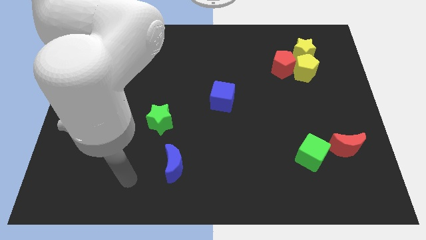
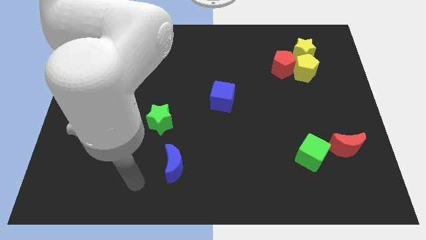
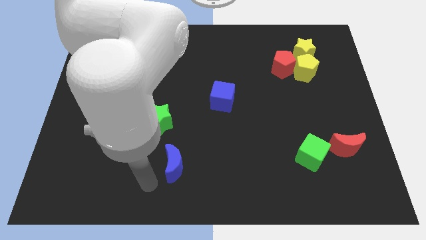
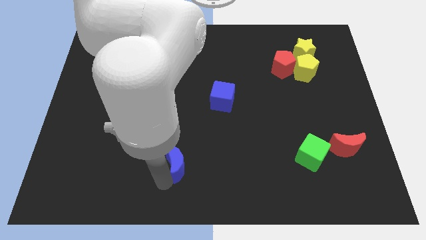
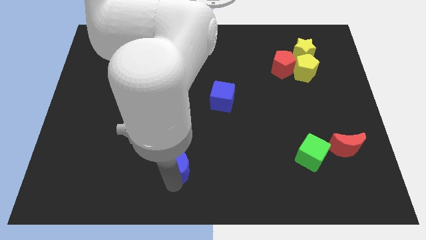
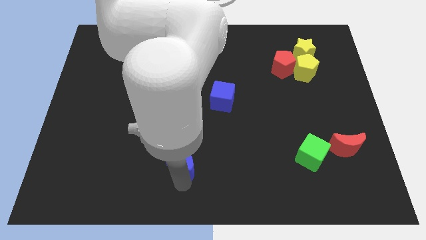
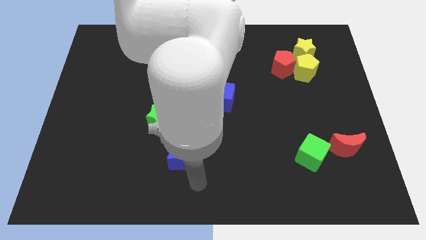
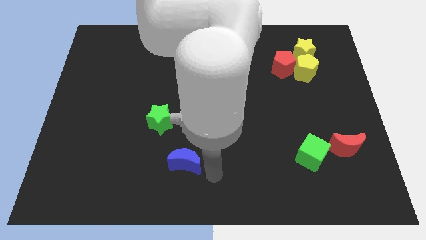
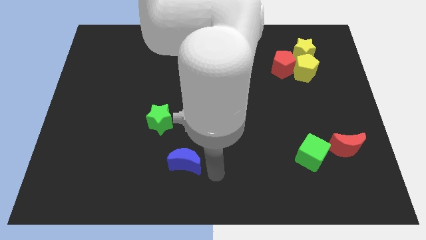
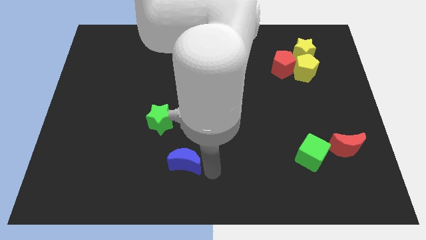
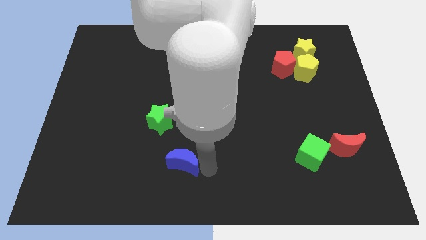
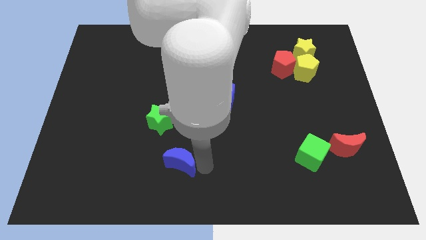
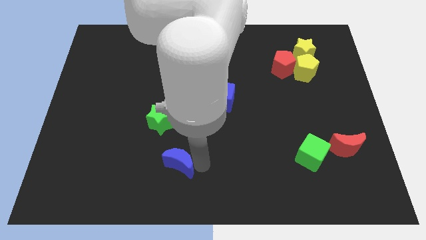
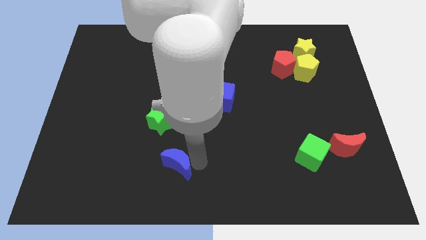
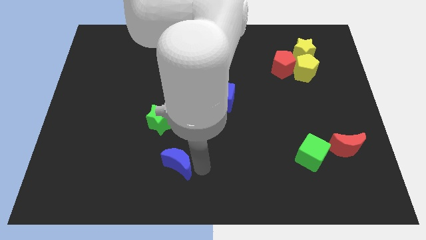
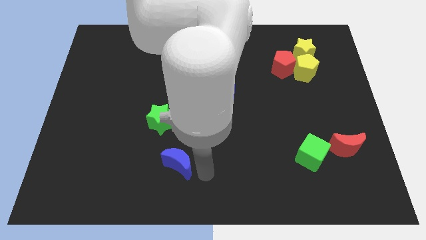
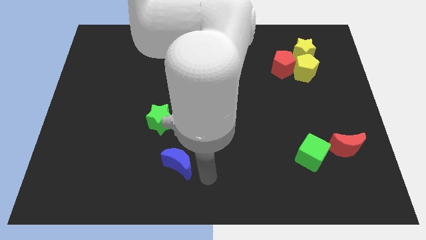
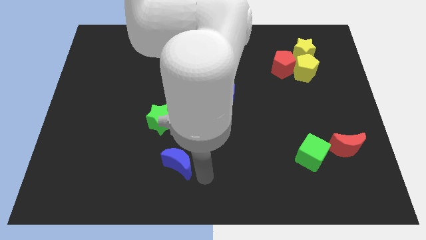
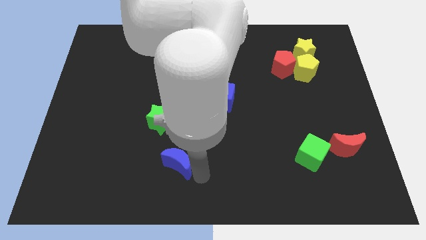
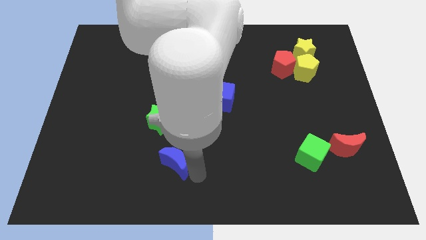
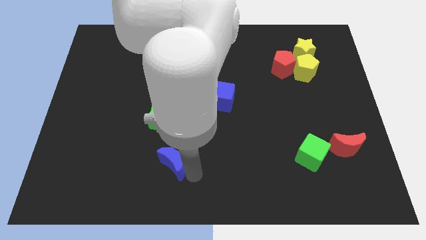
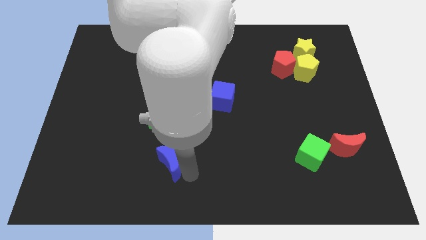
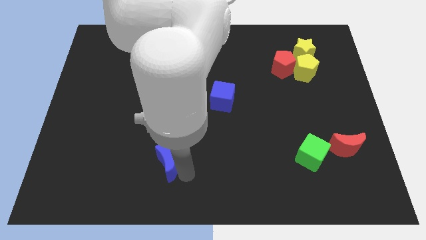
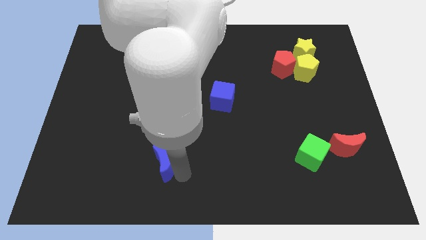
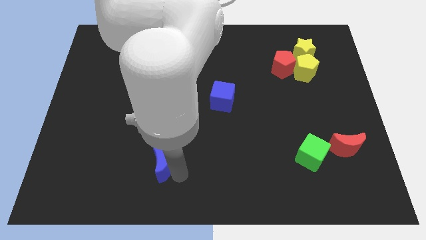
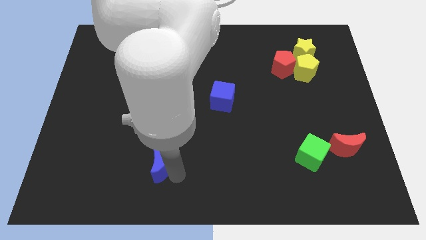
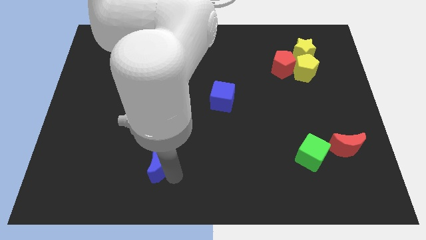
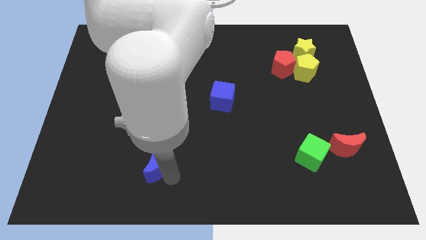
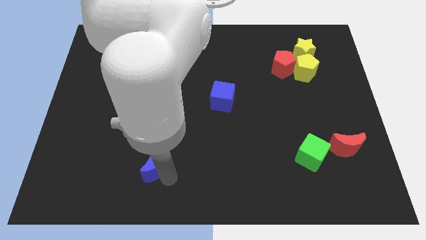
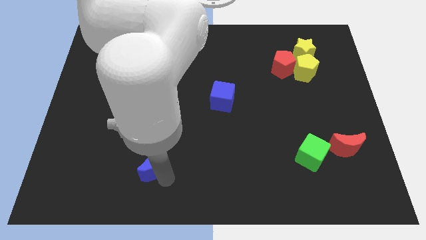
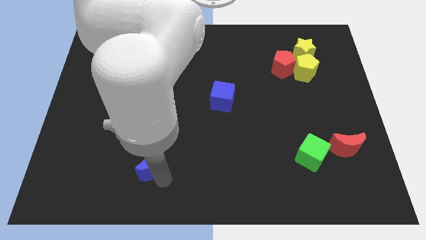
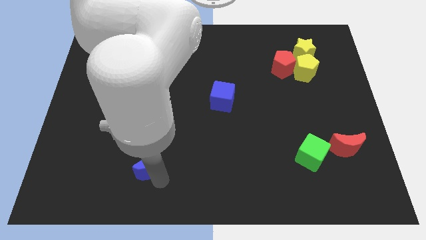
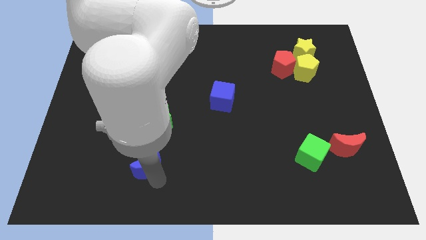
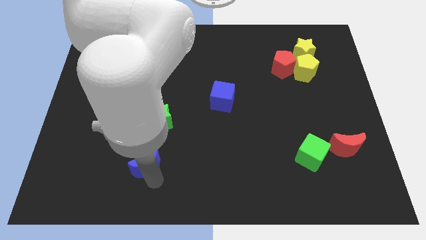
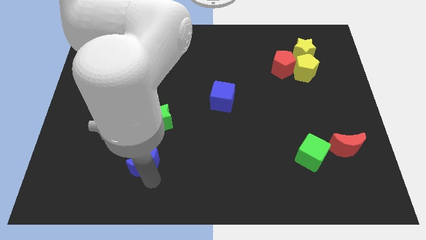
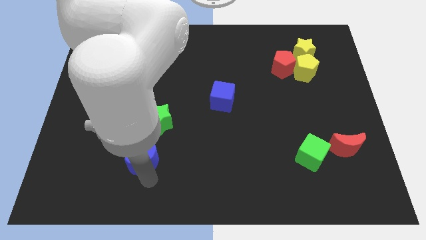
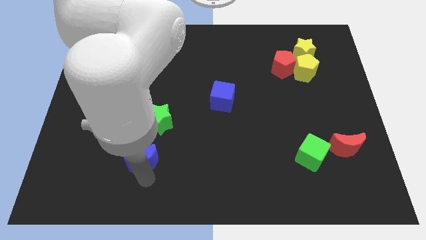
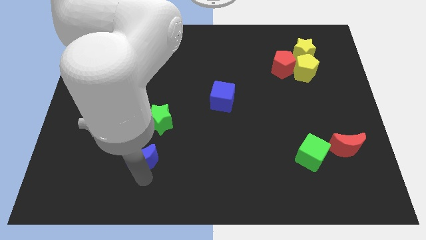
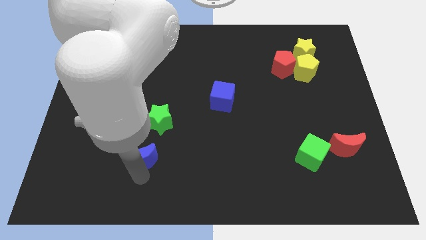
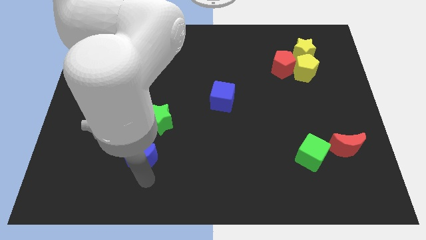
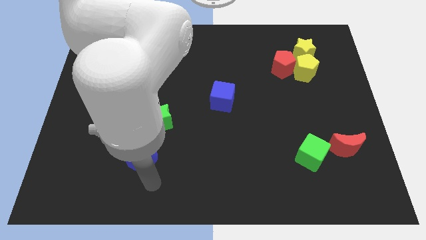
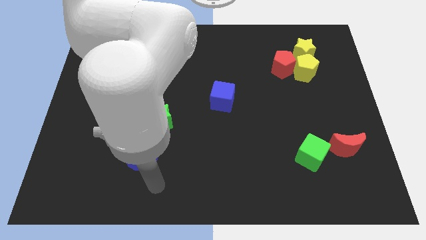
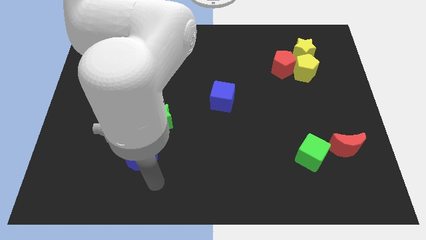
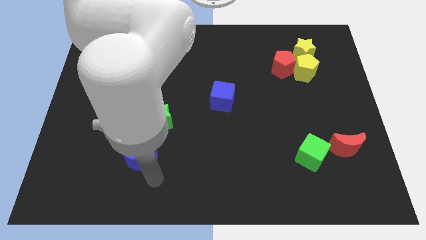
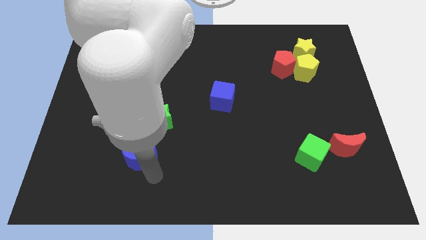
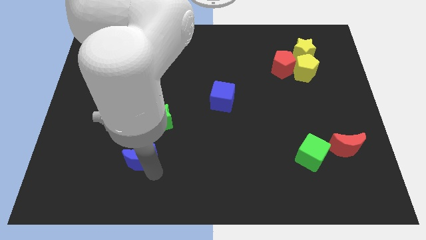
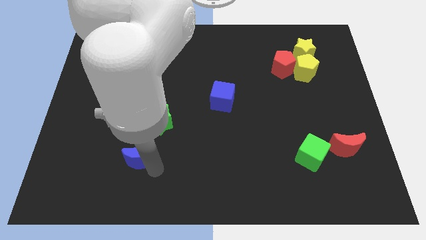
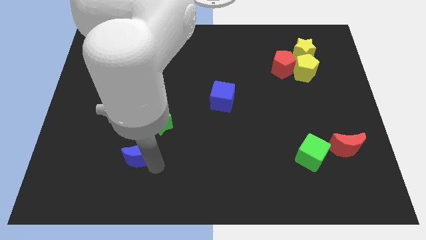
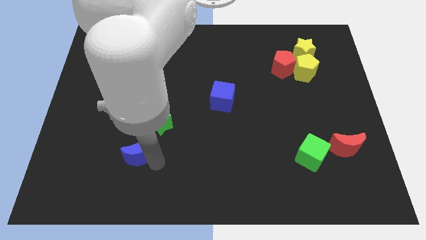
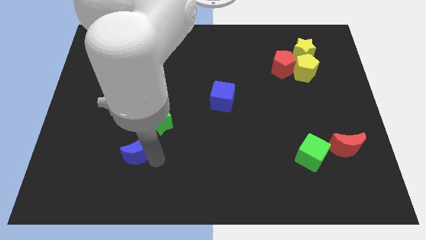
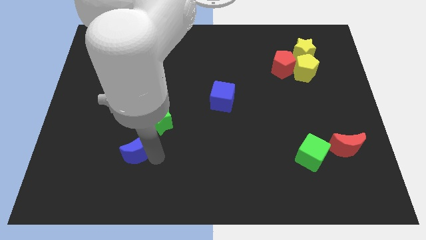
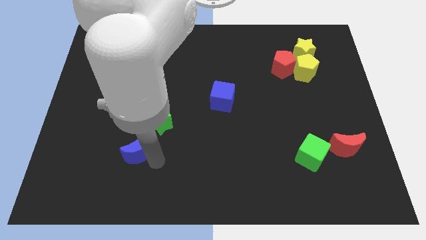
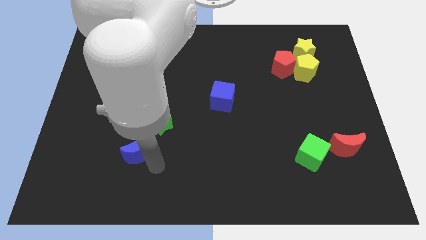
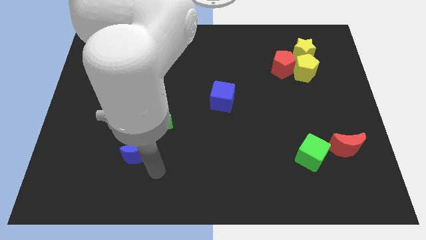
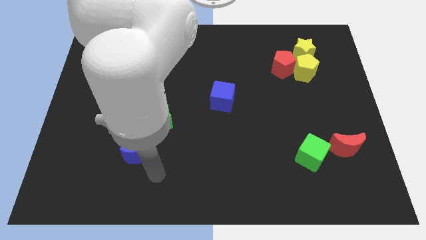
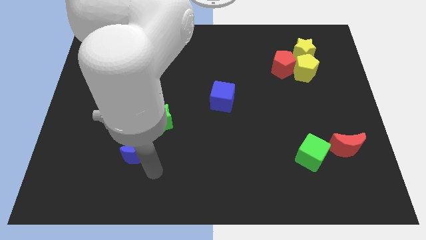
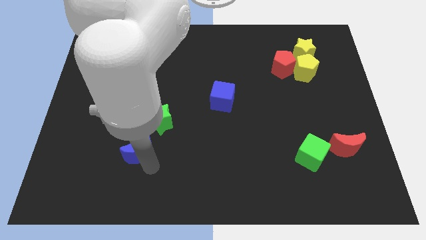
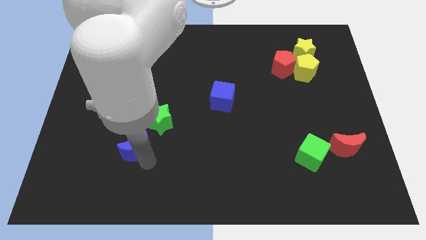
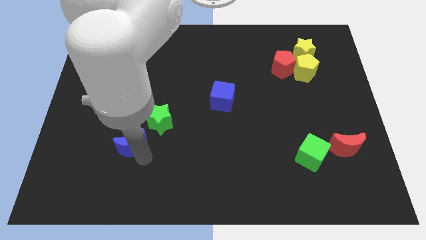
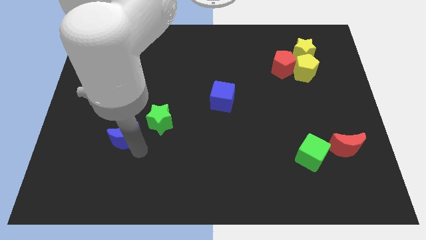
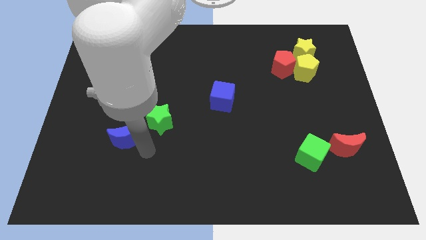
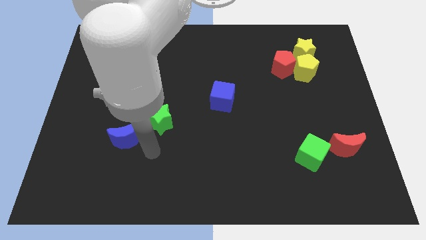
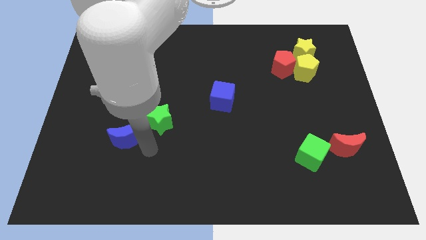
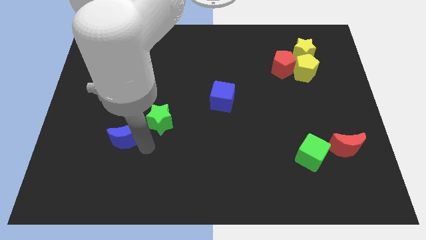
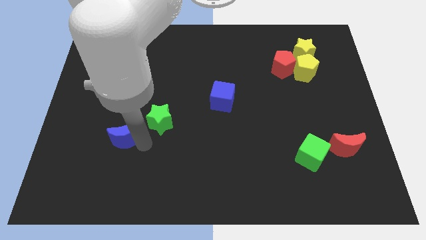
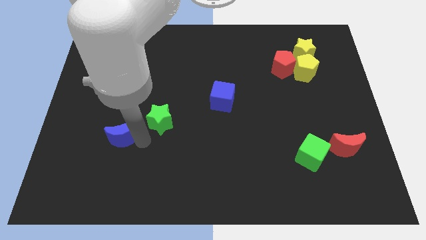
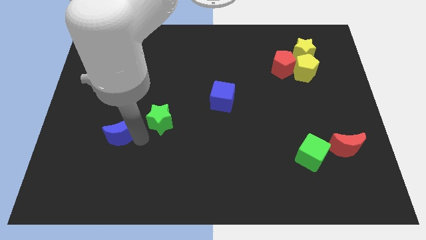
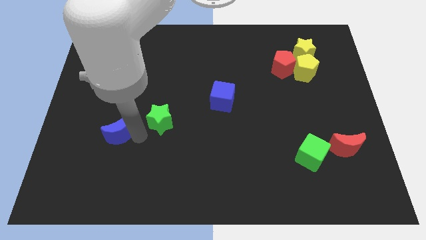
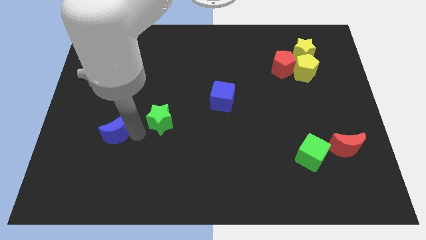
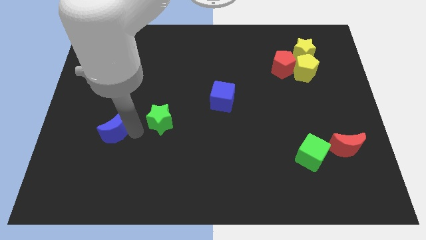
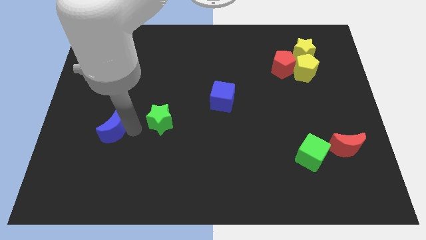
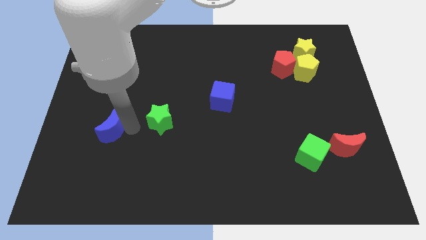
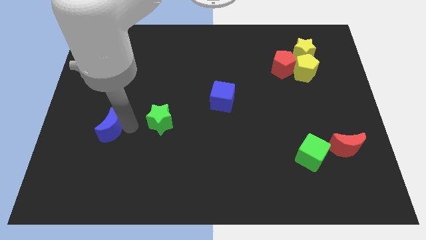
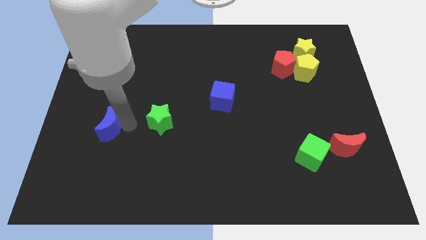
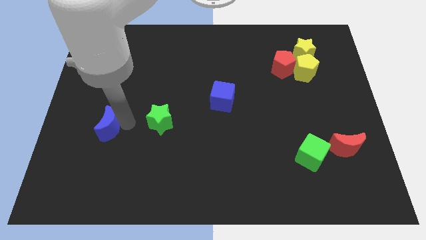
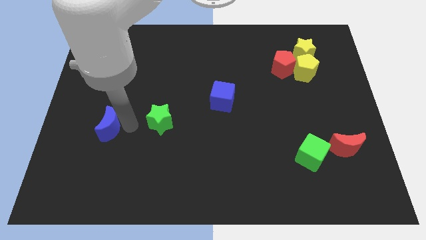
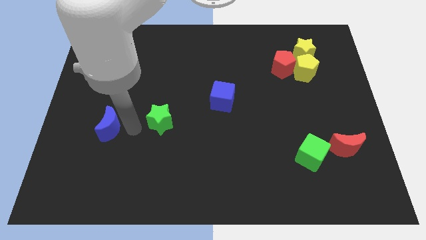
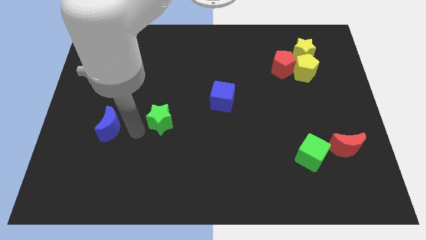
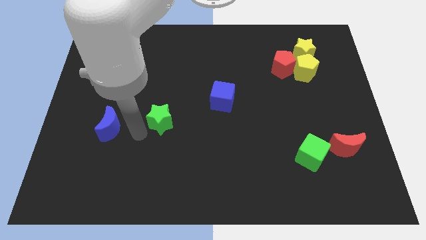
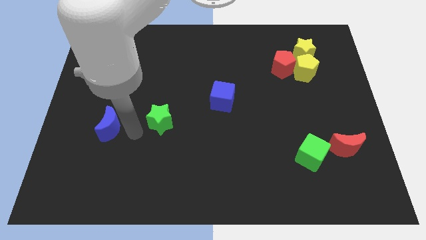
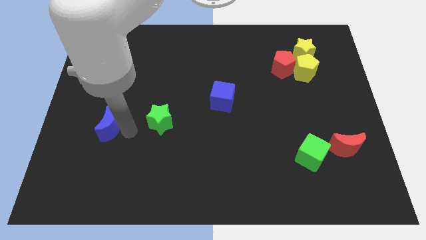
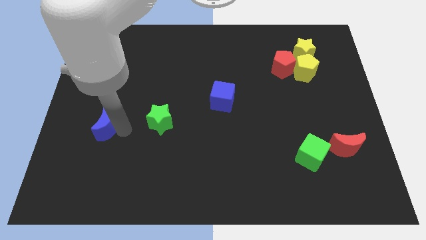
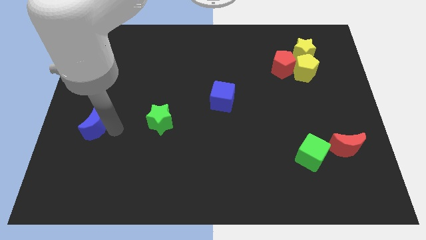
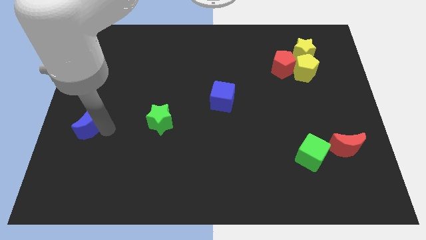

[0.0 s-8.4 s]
put the blue moon to the center left
